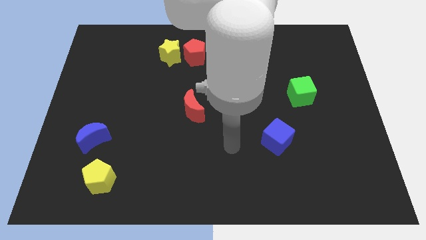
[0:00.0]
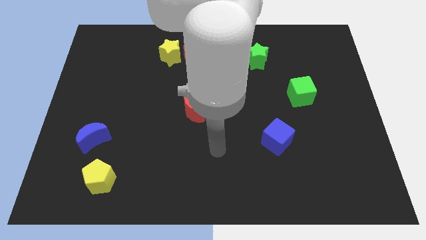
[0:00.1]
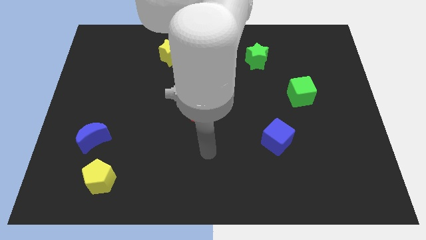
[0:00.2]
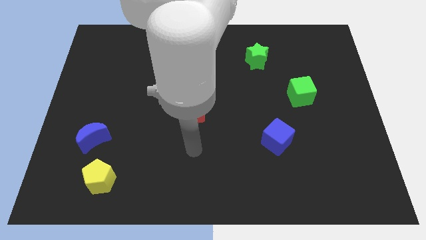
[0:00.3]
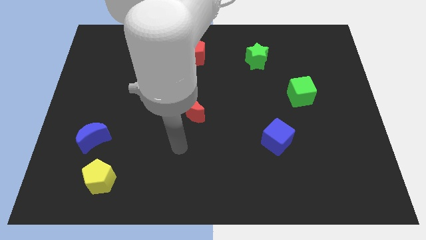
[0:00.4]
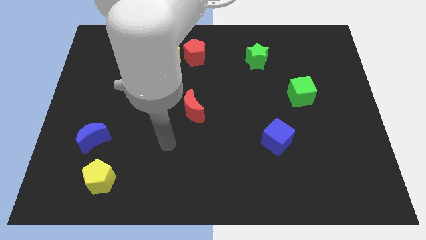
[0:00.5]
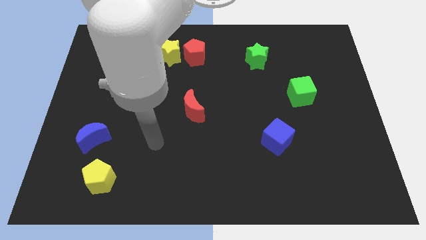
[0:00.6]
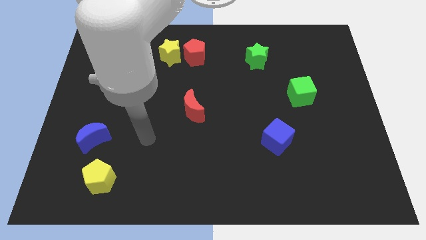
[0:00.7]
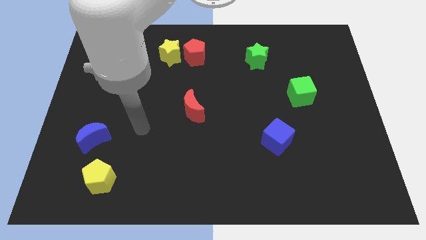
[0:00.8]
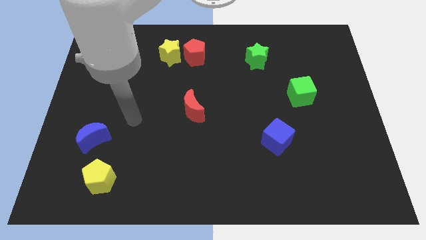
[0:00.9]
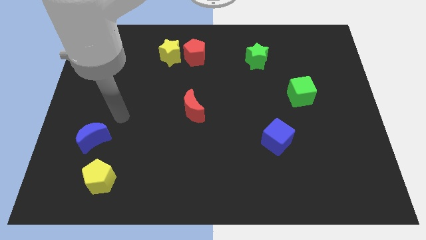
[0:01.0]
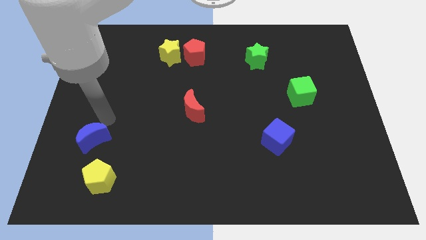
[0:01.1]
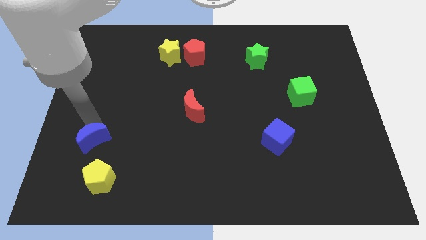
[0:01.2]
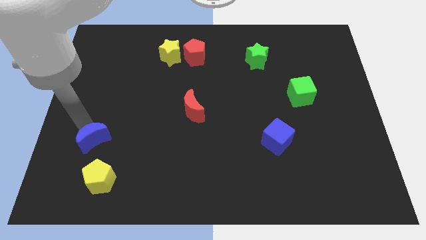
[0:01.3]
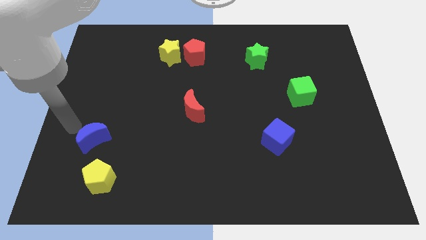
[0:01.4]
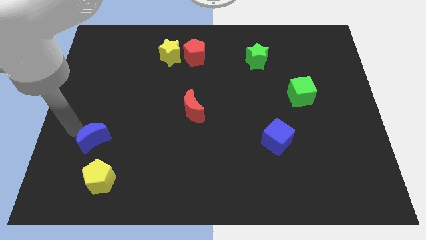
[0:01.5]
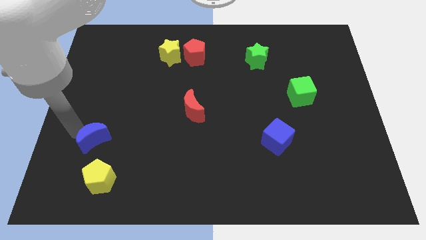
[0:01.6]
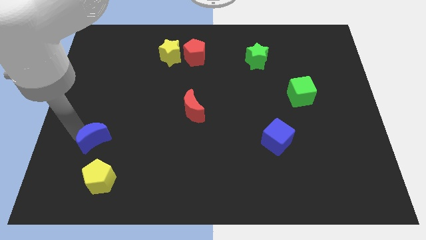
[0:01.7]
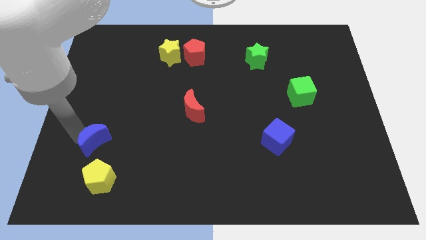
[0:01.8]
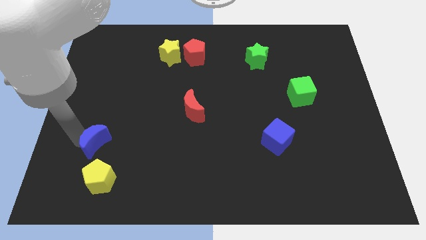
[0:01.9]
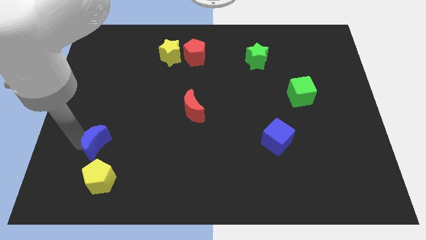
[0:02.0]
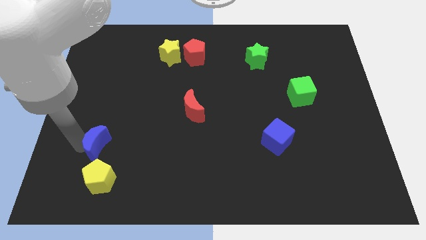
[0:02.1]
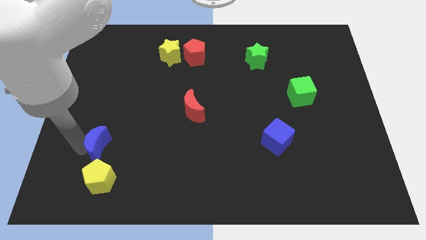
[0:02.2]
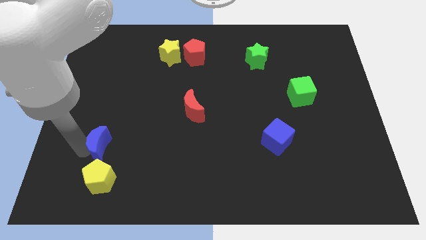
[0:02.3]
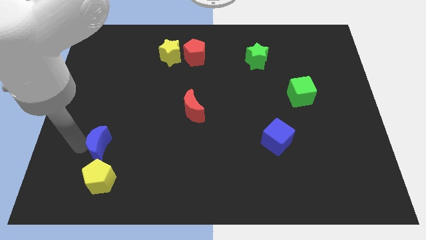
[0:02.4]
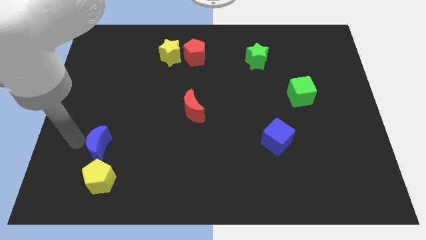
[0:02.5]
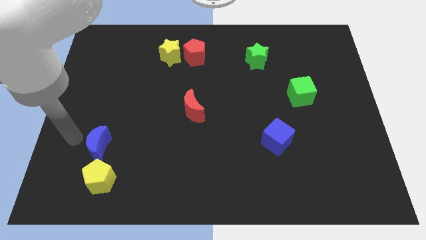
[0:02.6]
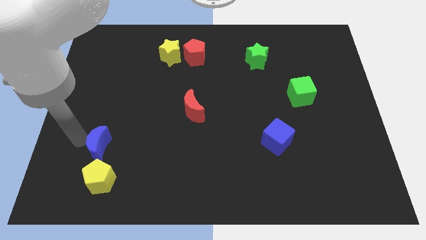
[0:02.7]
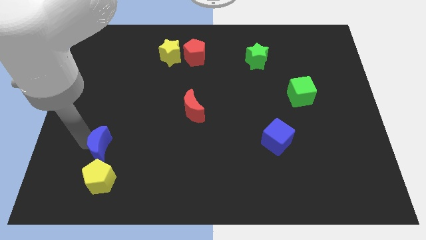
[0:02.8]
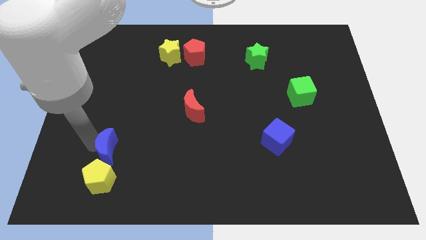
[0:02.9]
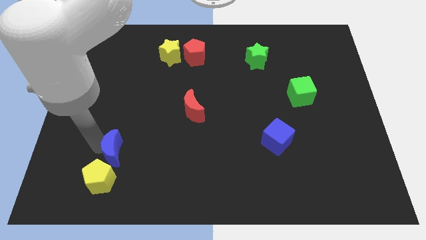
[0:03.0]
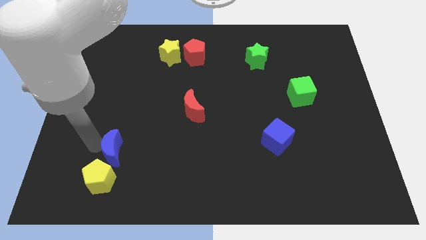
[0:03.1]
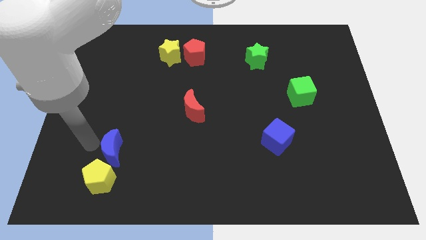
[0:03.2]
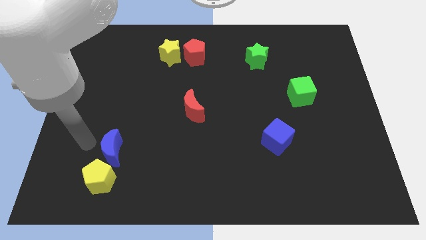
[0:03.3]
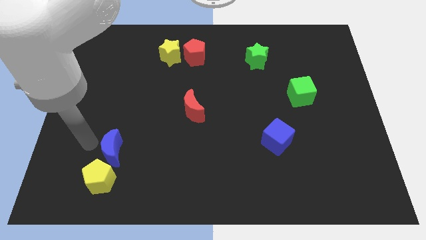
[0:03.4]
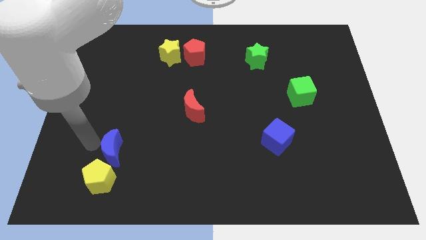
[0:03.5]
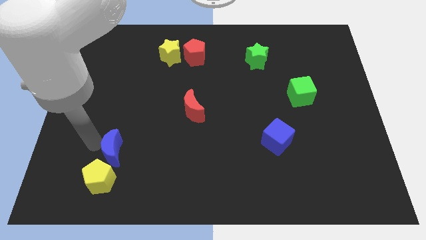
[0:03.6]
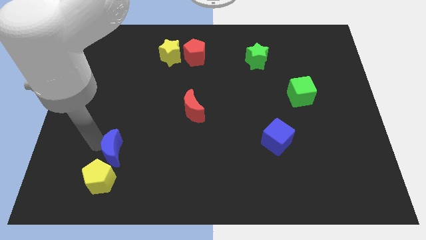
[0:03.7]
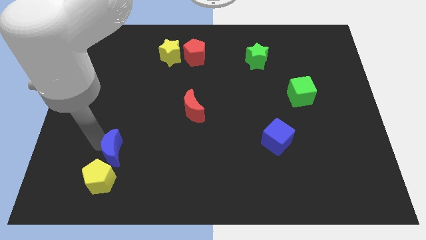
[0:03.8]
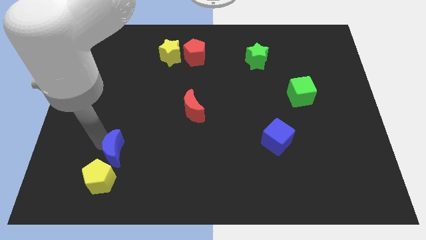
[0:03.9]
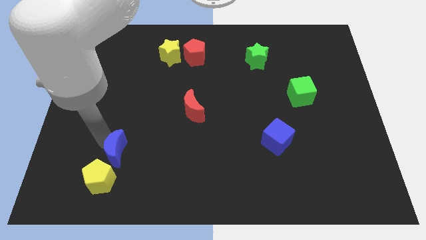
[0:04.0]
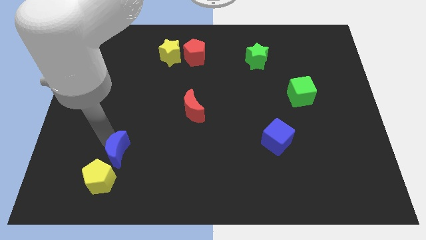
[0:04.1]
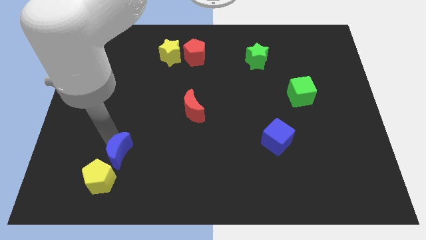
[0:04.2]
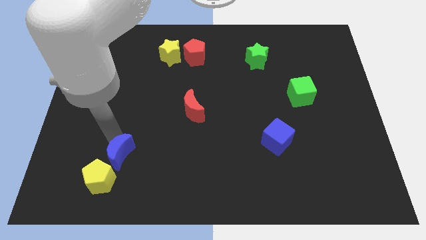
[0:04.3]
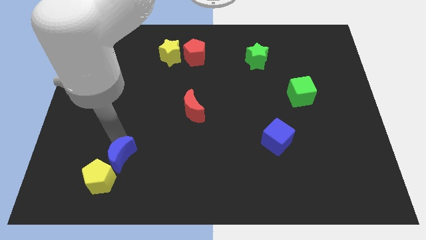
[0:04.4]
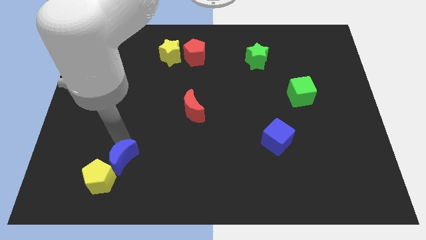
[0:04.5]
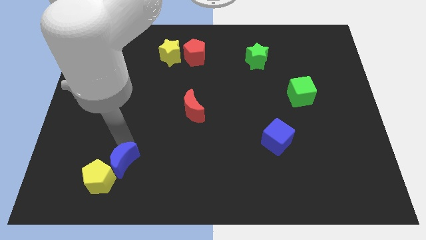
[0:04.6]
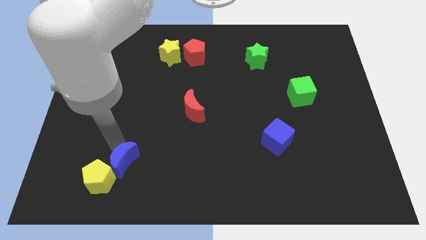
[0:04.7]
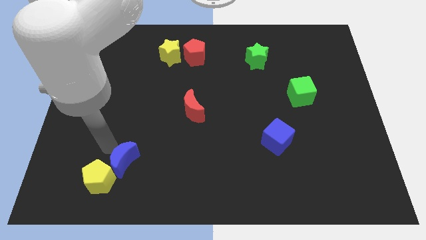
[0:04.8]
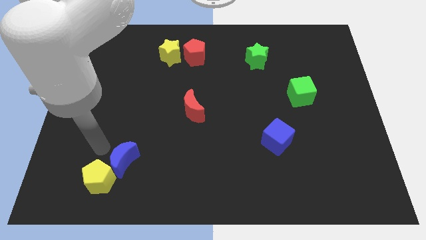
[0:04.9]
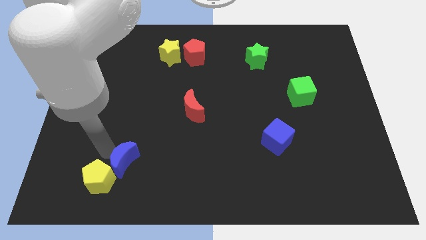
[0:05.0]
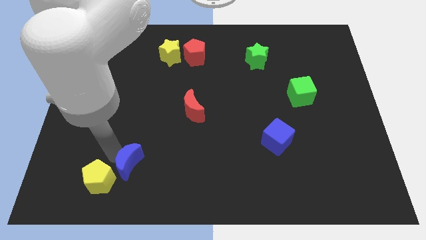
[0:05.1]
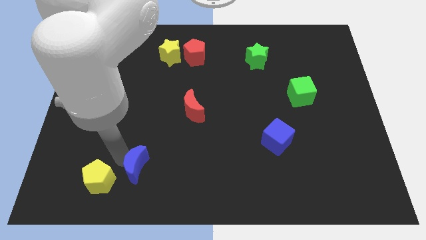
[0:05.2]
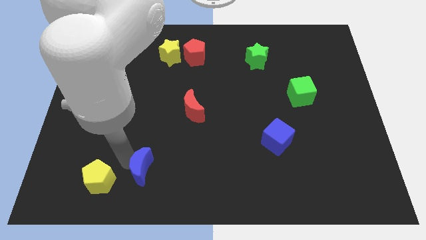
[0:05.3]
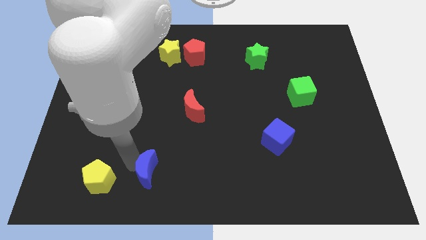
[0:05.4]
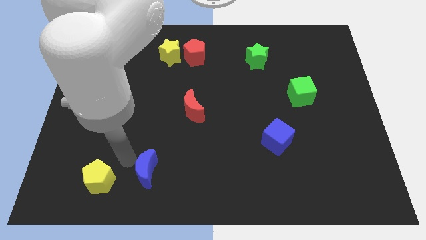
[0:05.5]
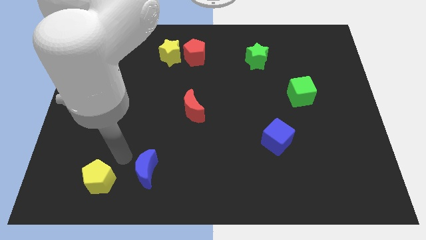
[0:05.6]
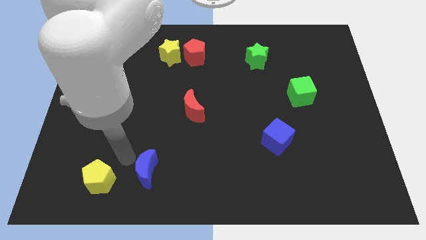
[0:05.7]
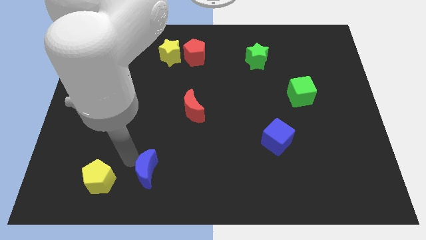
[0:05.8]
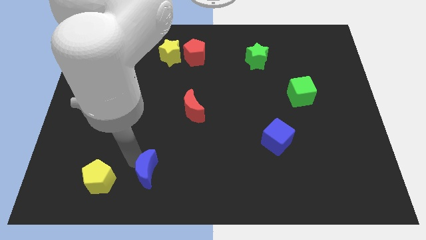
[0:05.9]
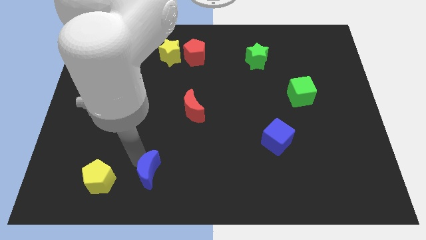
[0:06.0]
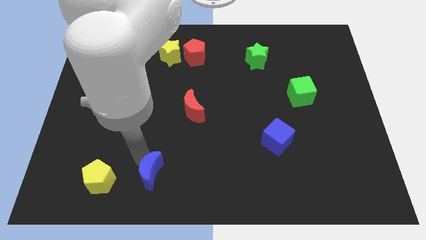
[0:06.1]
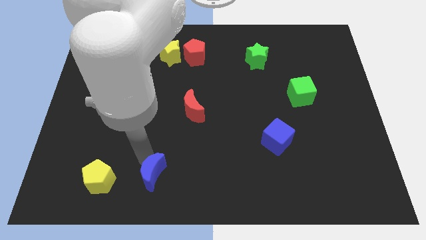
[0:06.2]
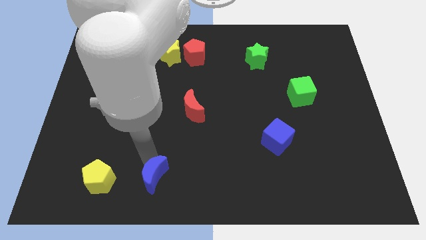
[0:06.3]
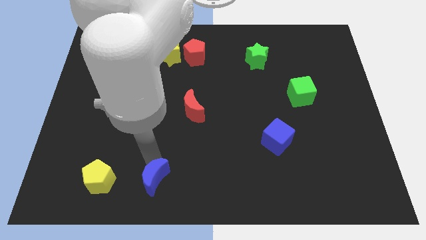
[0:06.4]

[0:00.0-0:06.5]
move the blue moon to the bottom
